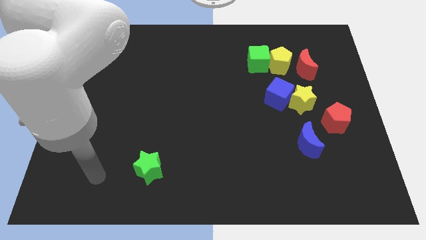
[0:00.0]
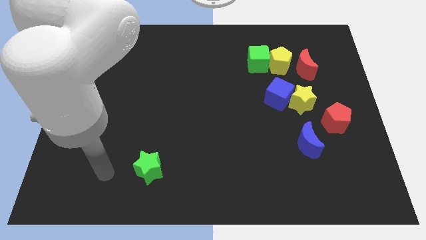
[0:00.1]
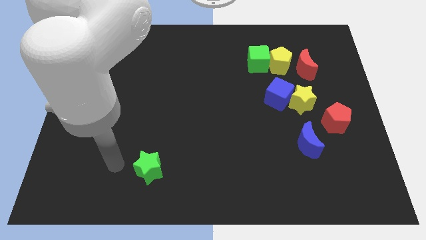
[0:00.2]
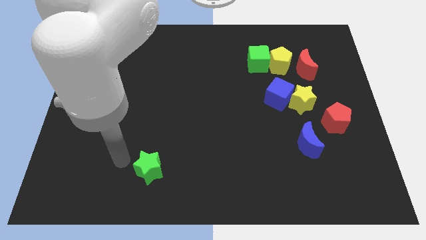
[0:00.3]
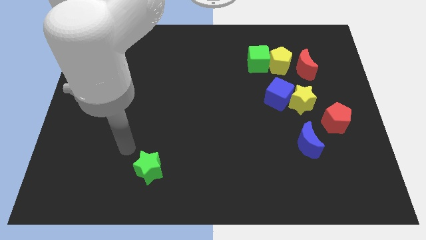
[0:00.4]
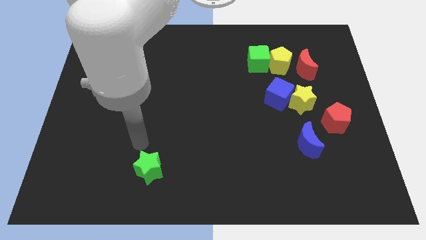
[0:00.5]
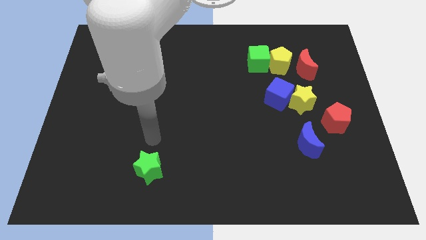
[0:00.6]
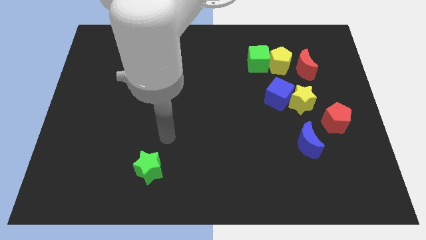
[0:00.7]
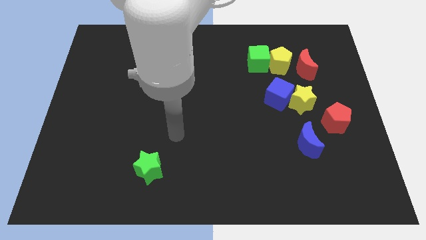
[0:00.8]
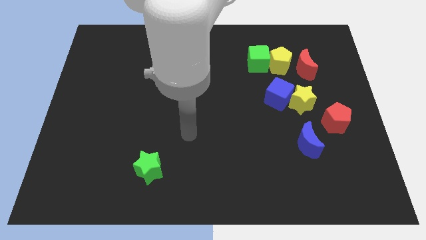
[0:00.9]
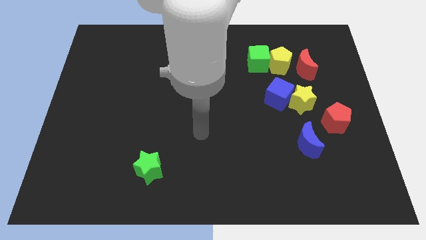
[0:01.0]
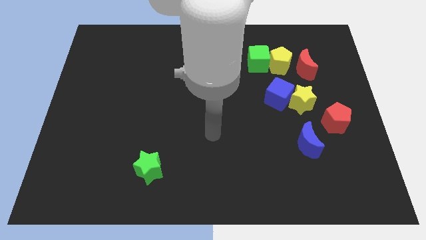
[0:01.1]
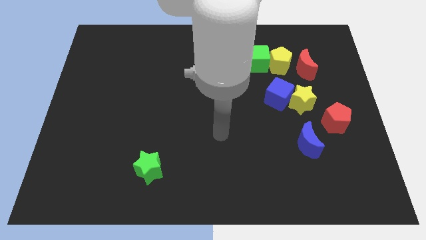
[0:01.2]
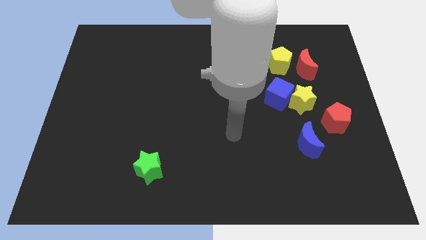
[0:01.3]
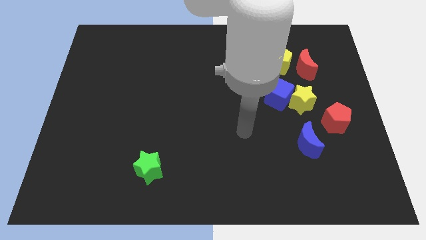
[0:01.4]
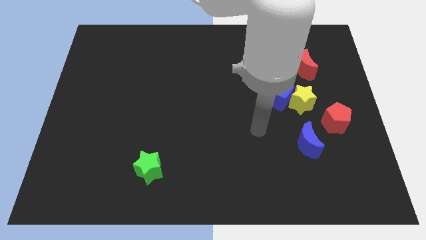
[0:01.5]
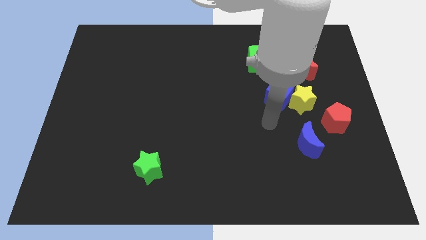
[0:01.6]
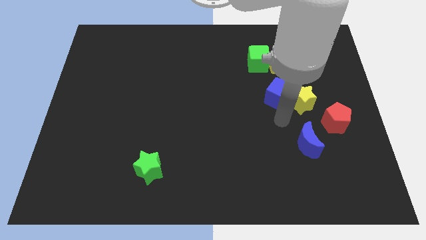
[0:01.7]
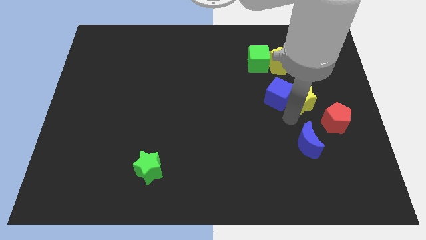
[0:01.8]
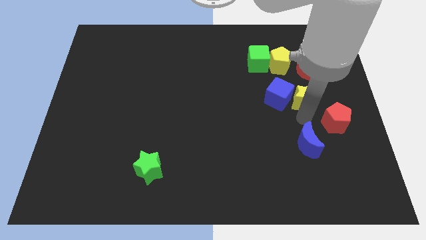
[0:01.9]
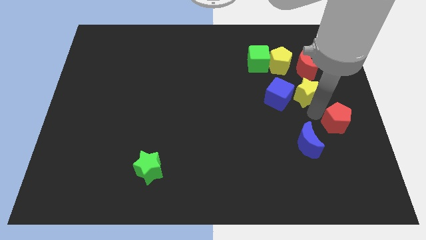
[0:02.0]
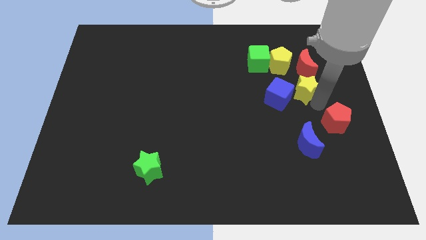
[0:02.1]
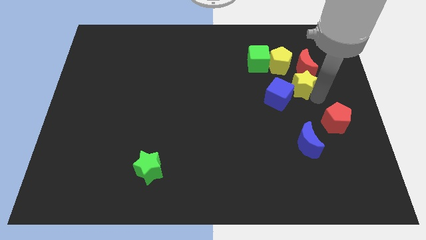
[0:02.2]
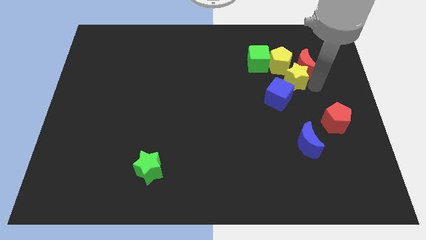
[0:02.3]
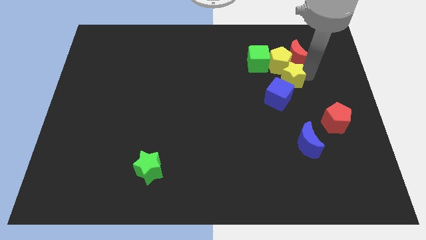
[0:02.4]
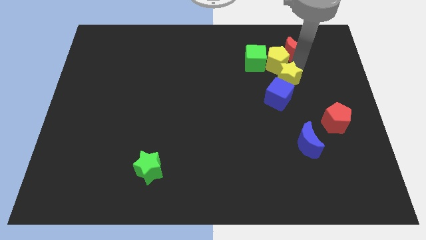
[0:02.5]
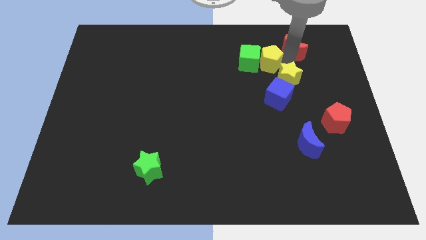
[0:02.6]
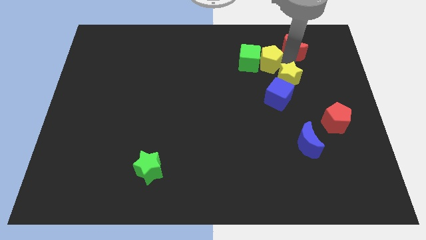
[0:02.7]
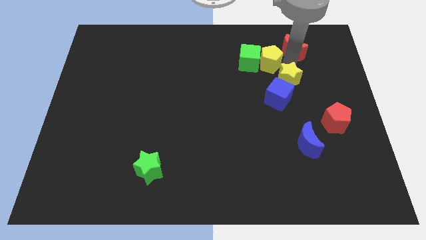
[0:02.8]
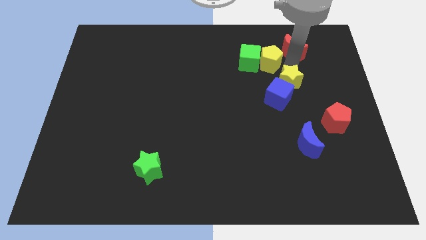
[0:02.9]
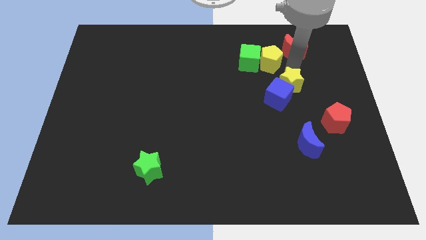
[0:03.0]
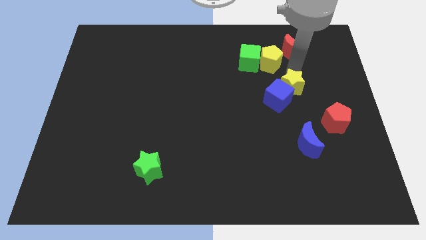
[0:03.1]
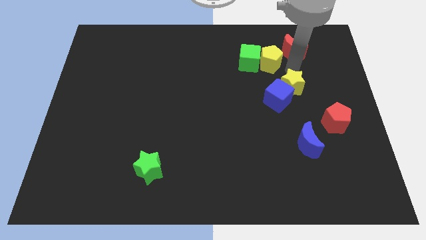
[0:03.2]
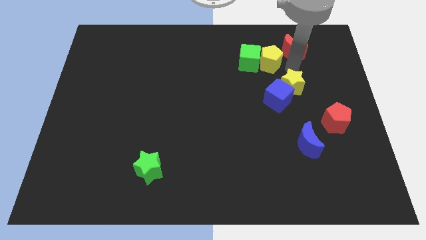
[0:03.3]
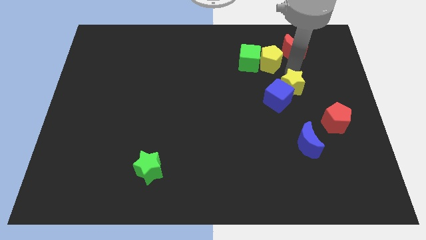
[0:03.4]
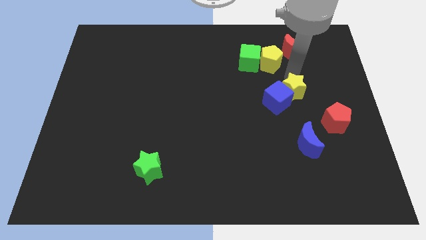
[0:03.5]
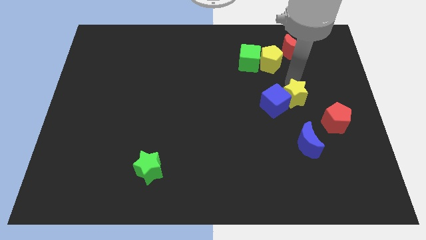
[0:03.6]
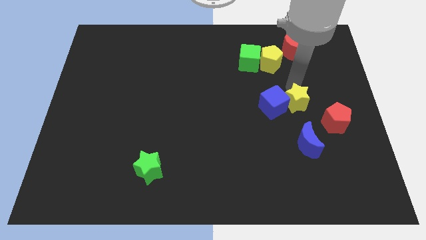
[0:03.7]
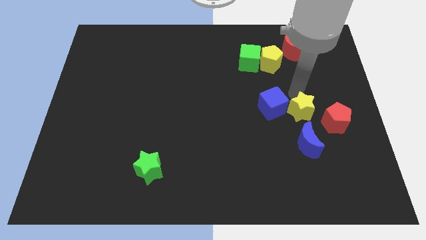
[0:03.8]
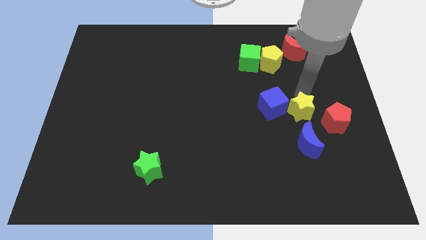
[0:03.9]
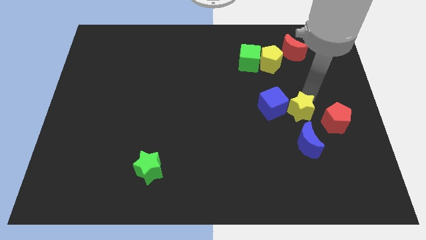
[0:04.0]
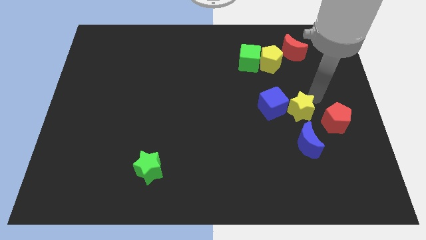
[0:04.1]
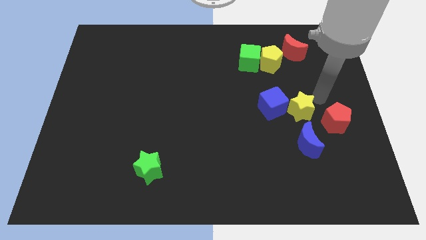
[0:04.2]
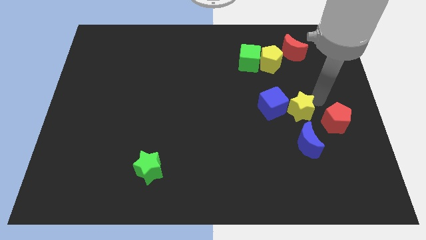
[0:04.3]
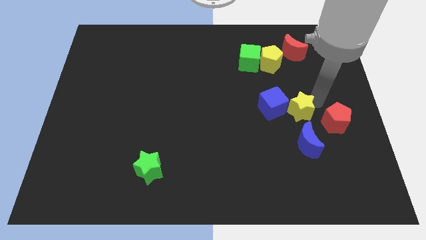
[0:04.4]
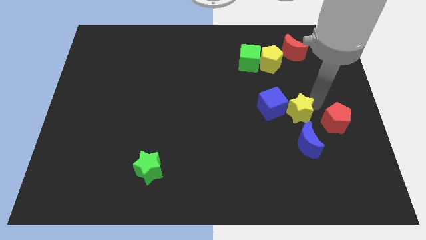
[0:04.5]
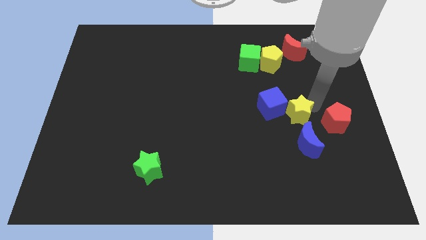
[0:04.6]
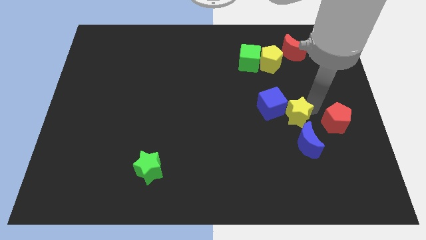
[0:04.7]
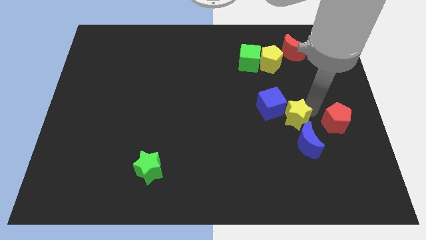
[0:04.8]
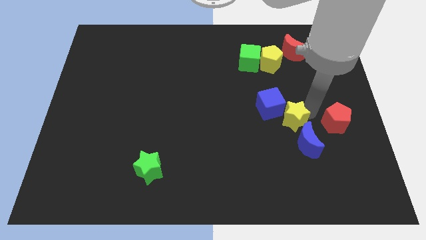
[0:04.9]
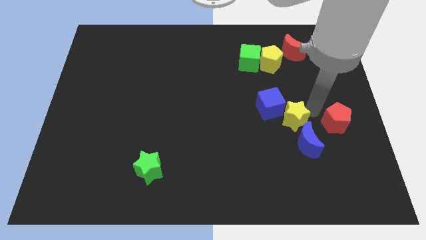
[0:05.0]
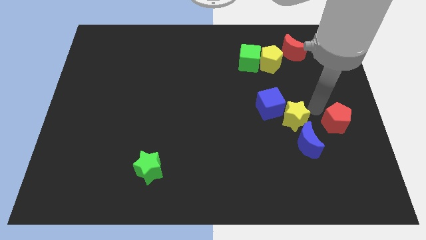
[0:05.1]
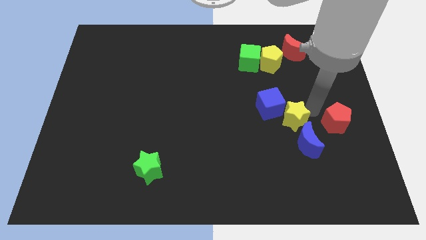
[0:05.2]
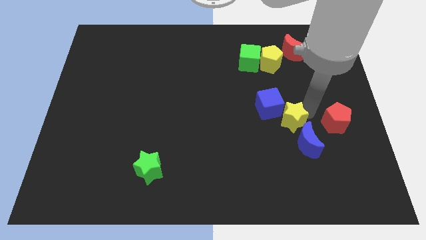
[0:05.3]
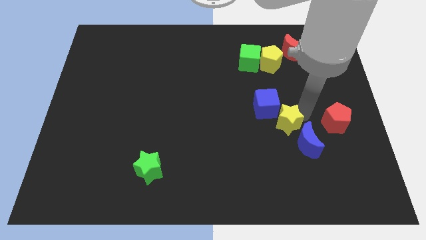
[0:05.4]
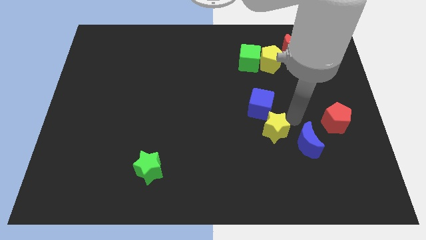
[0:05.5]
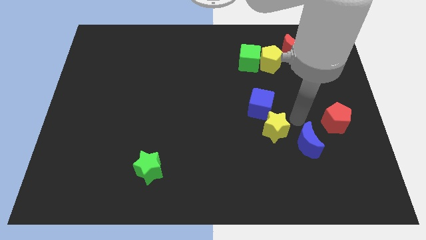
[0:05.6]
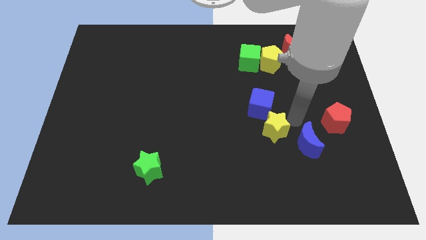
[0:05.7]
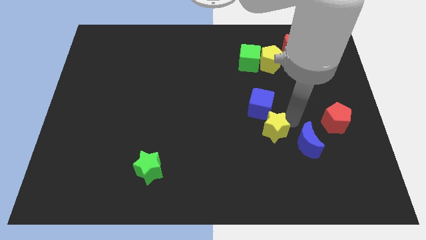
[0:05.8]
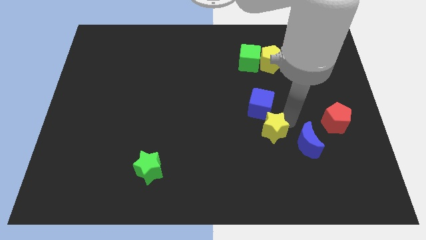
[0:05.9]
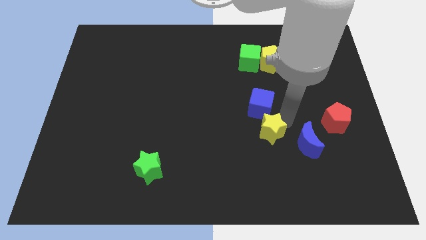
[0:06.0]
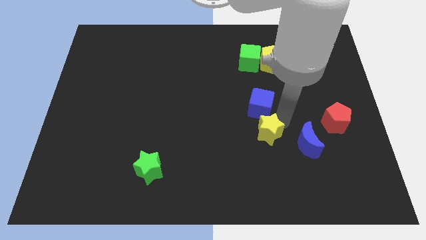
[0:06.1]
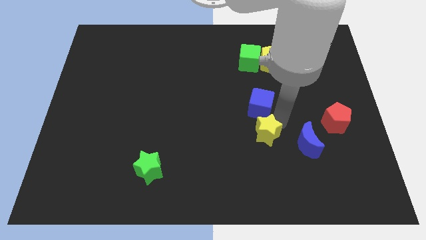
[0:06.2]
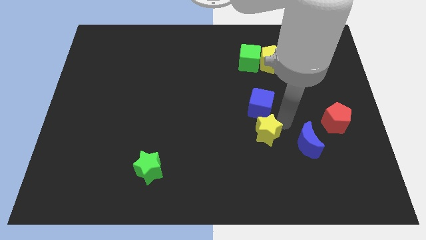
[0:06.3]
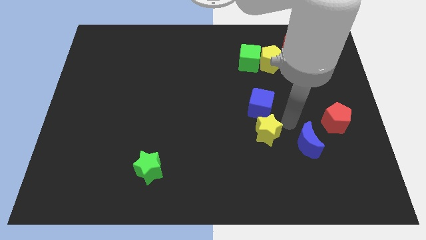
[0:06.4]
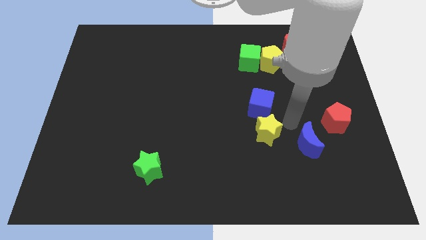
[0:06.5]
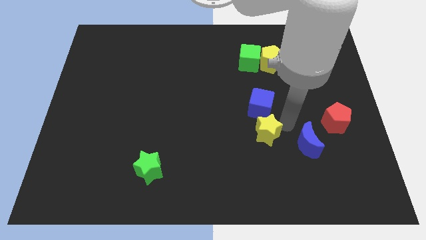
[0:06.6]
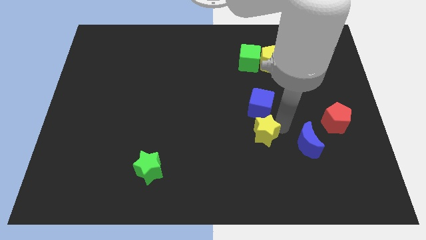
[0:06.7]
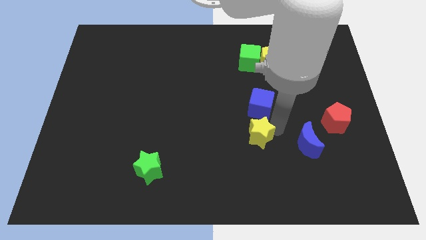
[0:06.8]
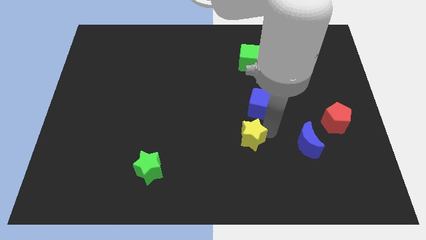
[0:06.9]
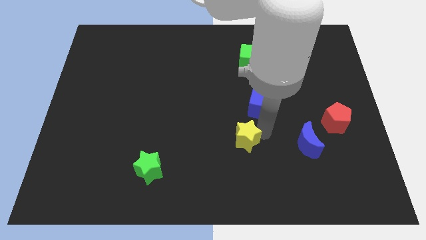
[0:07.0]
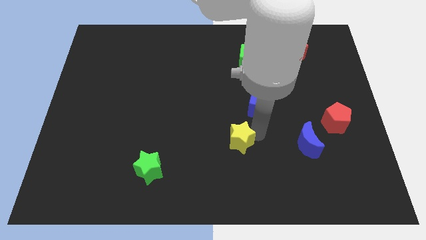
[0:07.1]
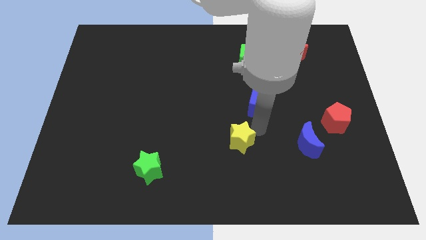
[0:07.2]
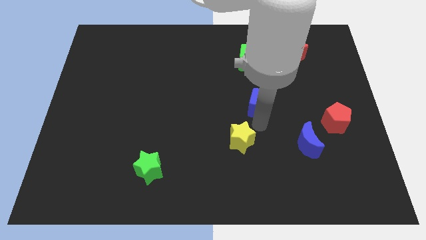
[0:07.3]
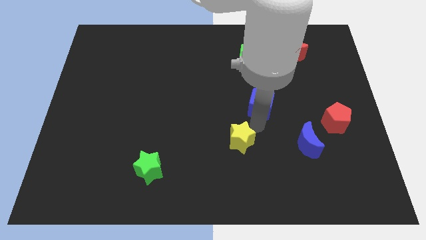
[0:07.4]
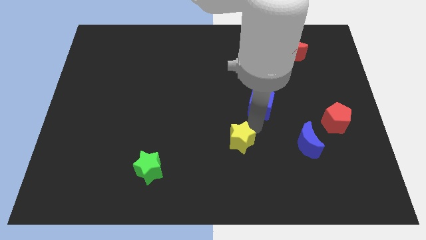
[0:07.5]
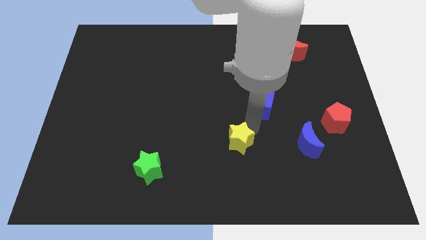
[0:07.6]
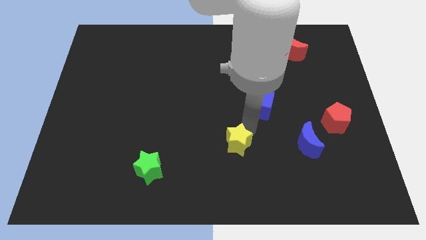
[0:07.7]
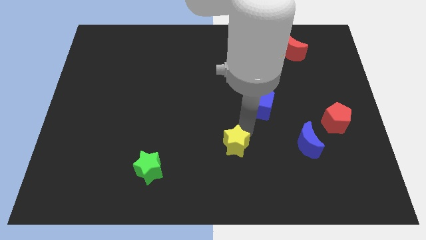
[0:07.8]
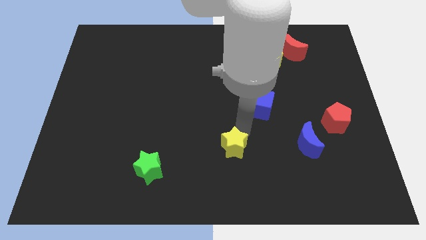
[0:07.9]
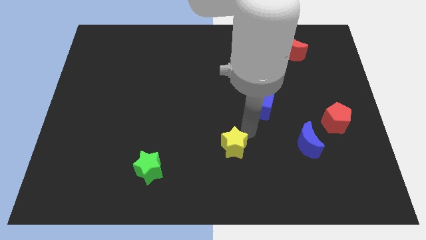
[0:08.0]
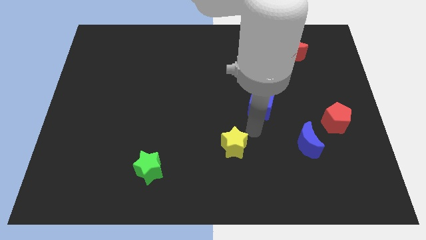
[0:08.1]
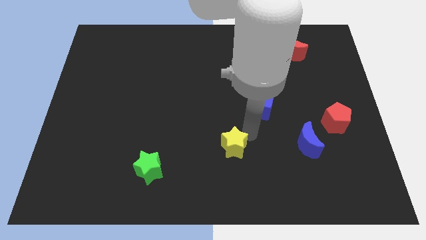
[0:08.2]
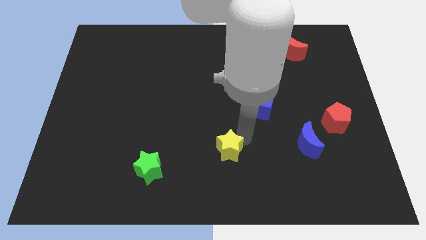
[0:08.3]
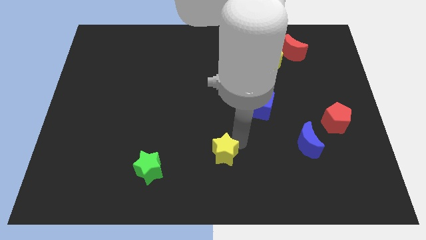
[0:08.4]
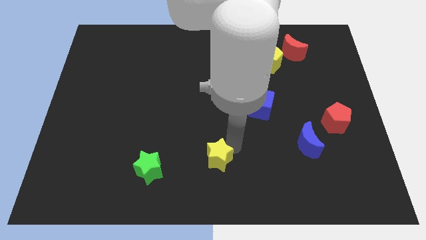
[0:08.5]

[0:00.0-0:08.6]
put the yellow star to the right of the green star
